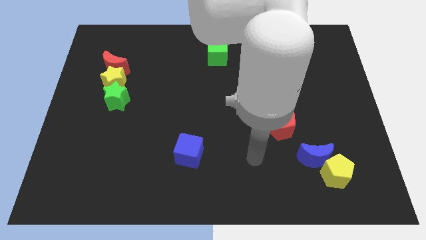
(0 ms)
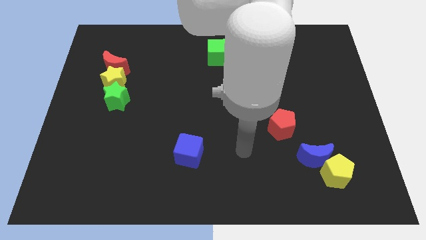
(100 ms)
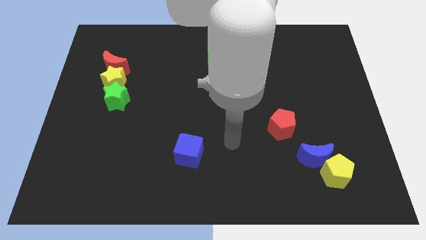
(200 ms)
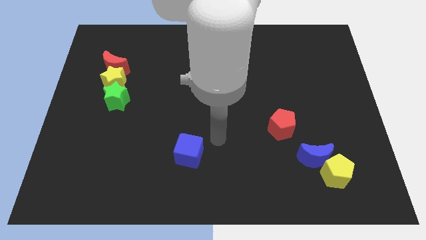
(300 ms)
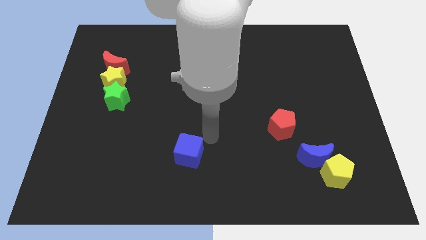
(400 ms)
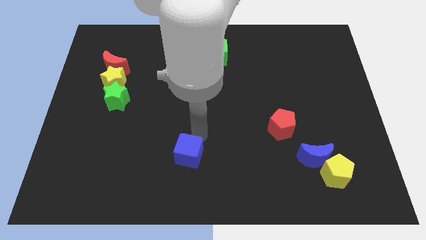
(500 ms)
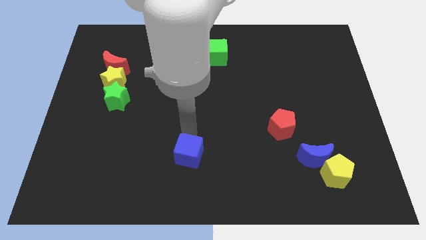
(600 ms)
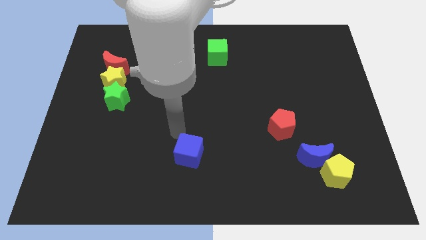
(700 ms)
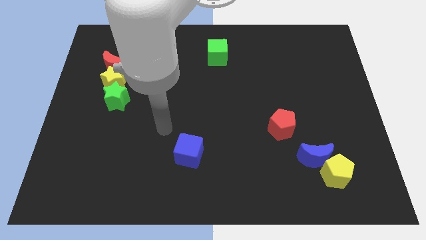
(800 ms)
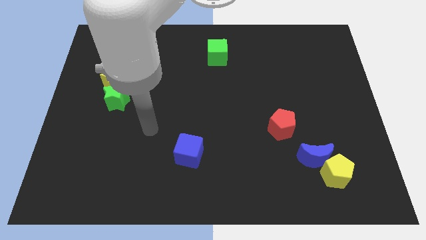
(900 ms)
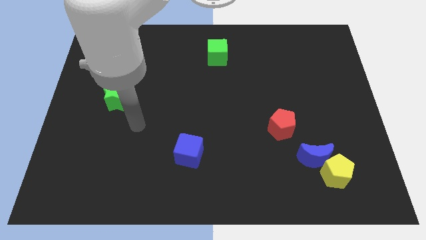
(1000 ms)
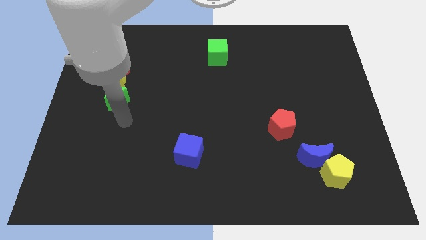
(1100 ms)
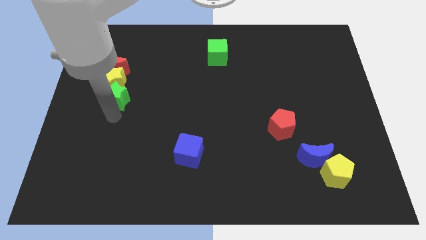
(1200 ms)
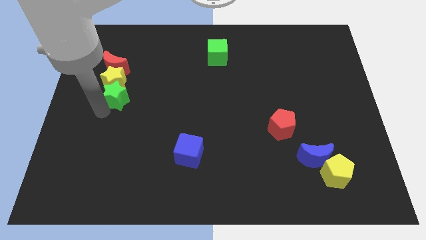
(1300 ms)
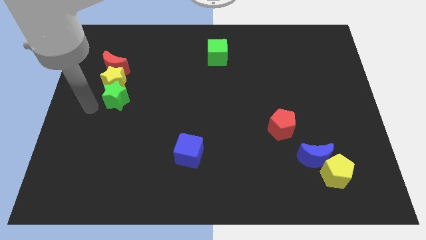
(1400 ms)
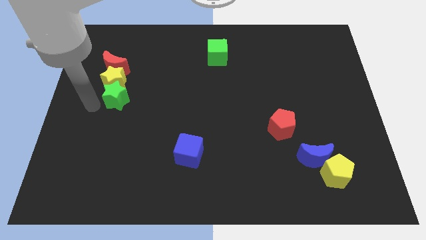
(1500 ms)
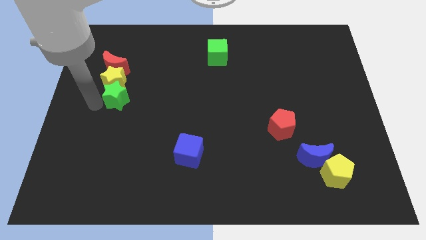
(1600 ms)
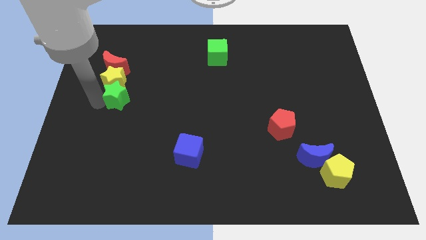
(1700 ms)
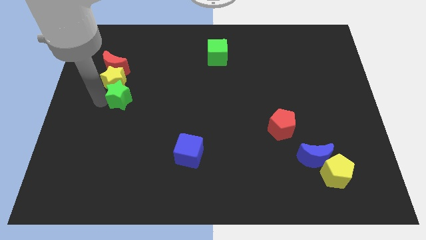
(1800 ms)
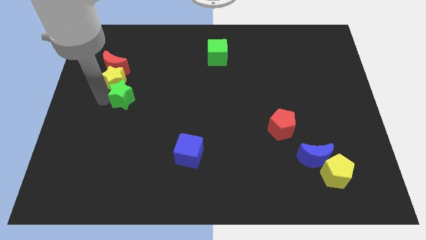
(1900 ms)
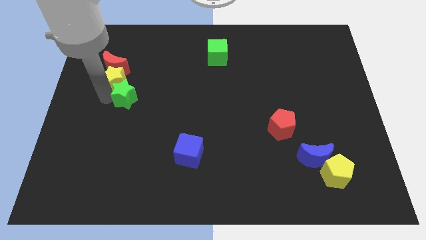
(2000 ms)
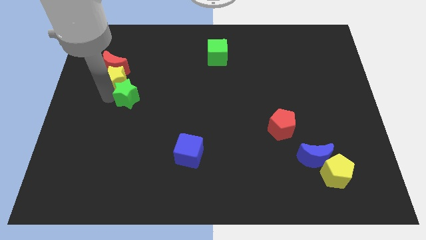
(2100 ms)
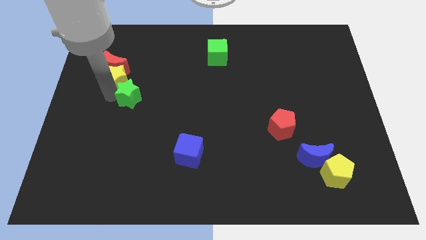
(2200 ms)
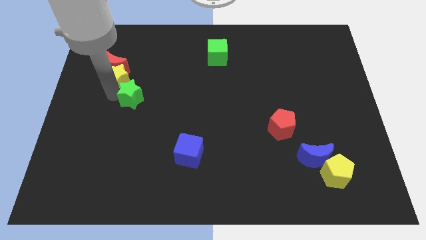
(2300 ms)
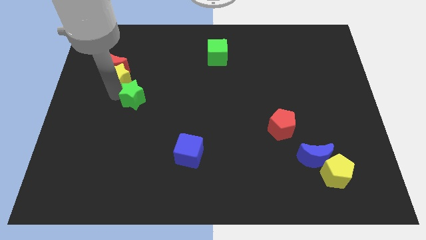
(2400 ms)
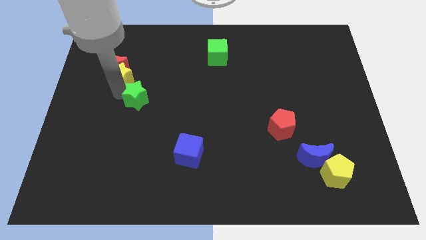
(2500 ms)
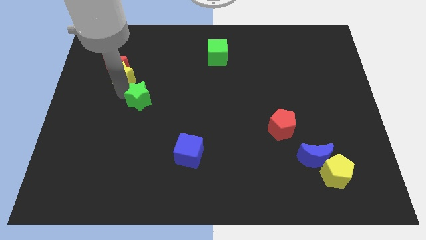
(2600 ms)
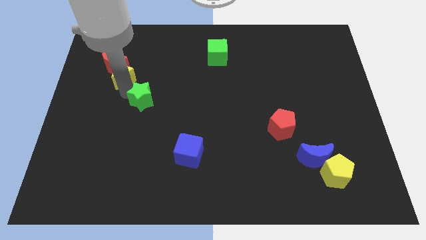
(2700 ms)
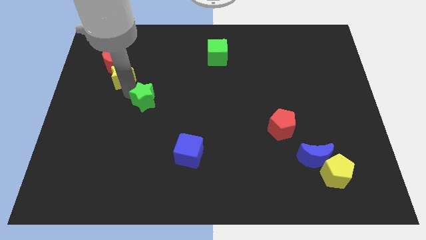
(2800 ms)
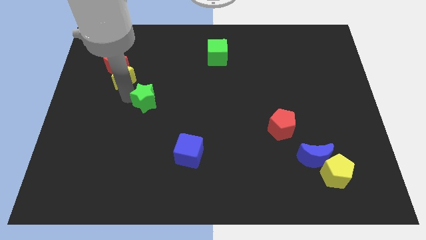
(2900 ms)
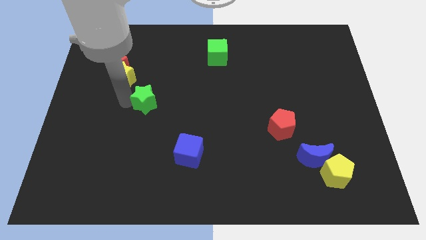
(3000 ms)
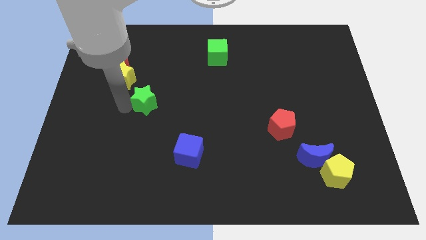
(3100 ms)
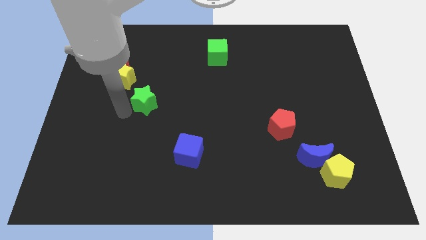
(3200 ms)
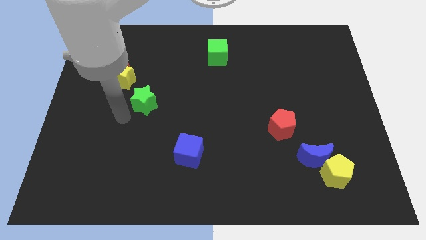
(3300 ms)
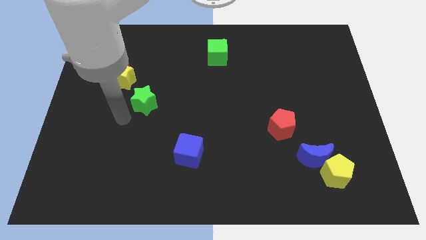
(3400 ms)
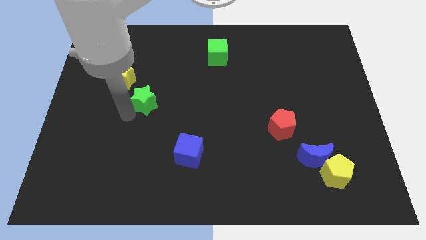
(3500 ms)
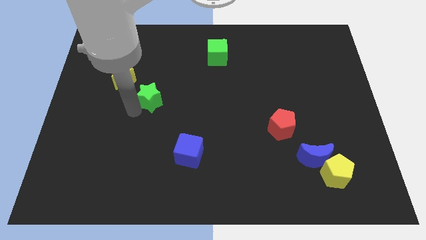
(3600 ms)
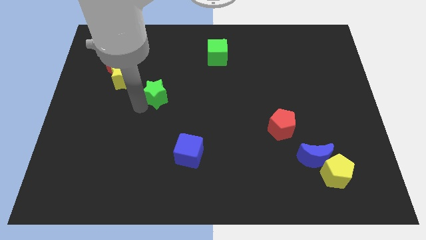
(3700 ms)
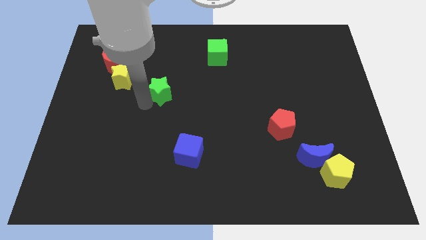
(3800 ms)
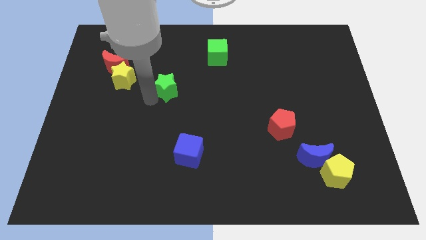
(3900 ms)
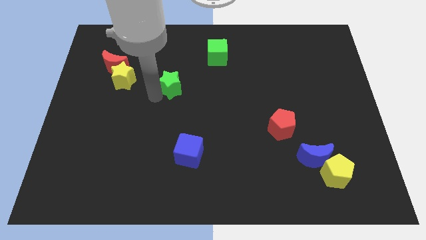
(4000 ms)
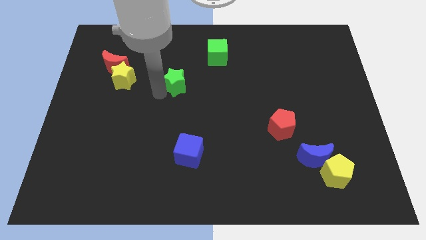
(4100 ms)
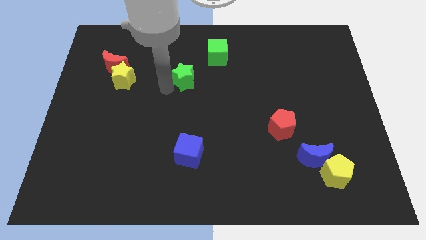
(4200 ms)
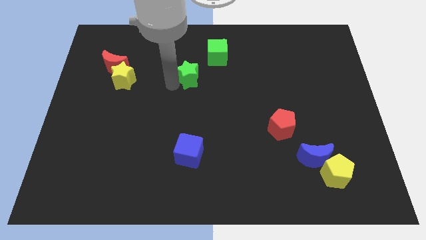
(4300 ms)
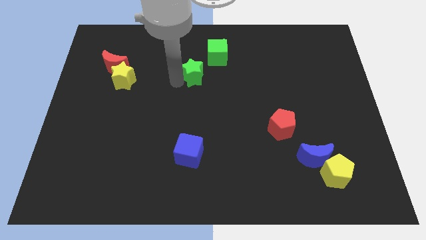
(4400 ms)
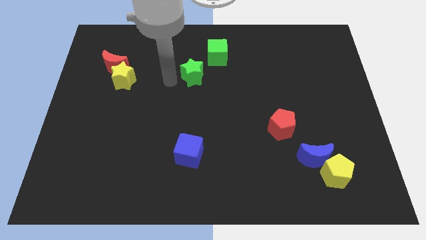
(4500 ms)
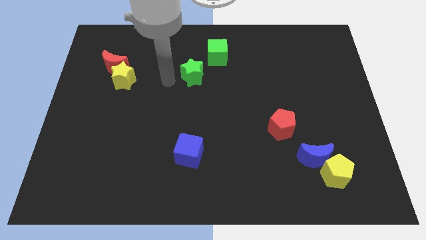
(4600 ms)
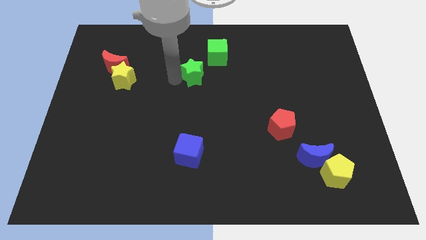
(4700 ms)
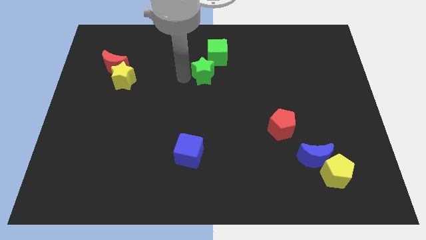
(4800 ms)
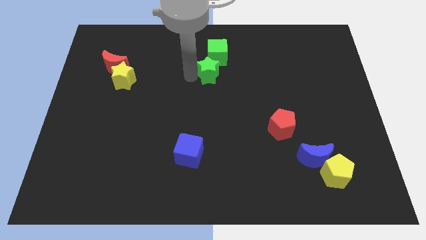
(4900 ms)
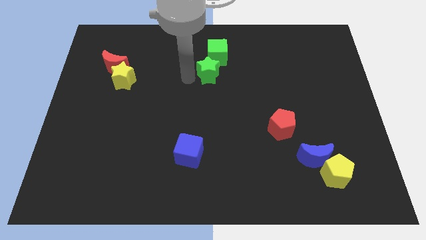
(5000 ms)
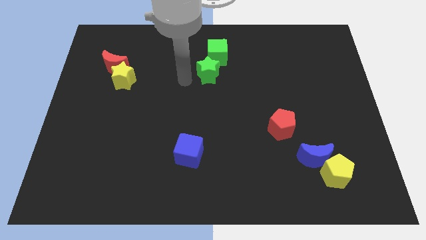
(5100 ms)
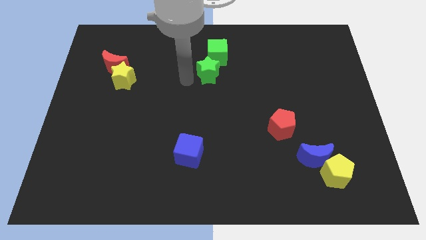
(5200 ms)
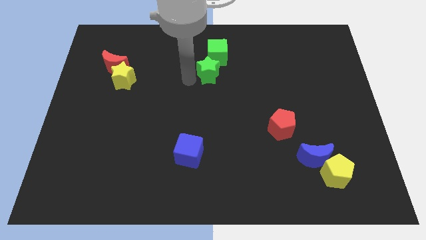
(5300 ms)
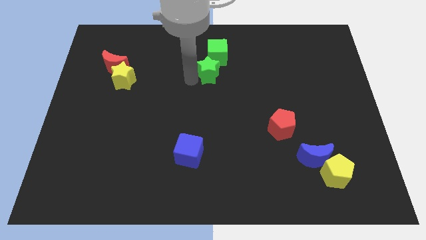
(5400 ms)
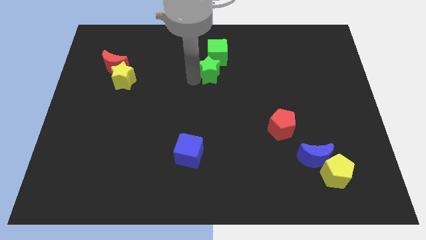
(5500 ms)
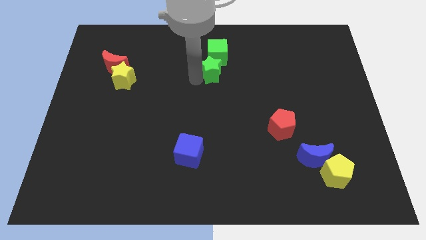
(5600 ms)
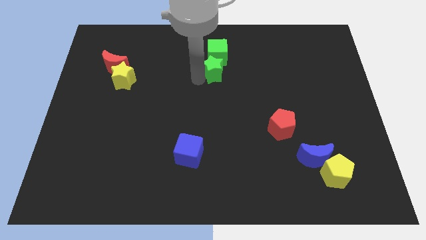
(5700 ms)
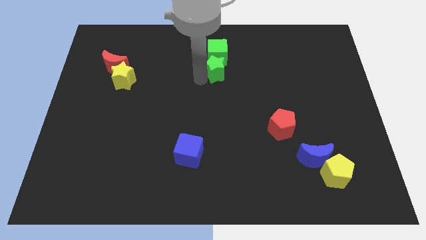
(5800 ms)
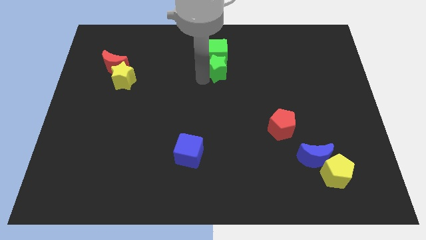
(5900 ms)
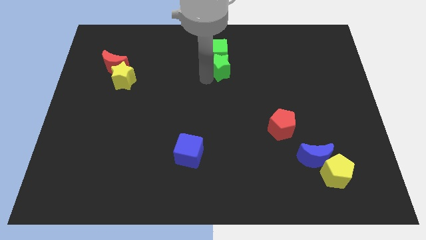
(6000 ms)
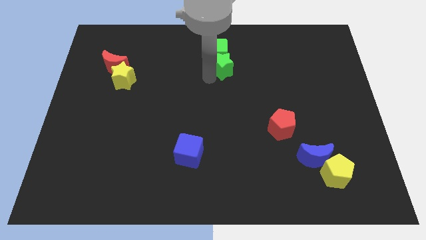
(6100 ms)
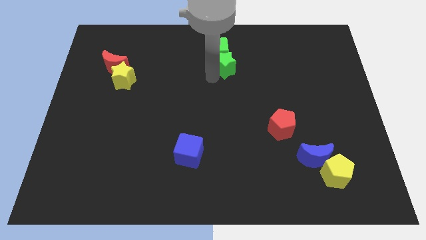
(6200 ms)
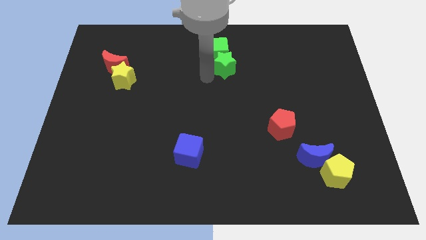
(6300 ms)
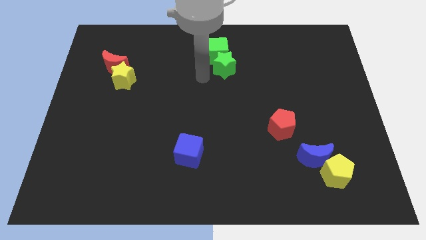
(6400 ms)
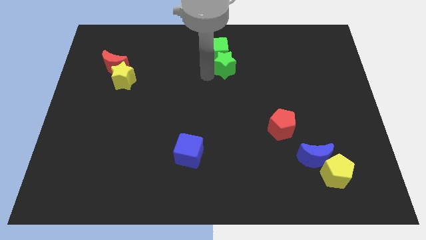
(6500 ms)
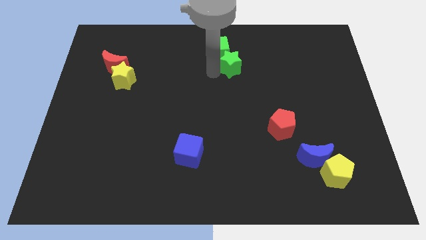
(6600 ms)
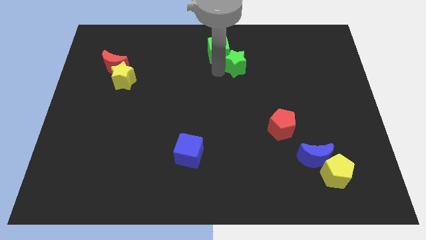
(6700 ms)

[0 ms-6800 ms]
move the green star to the right of the green cube
